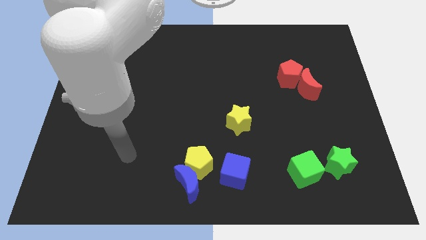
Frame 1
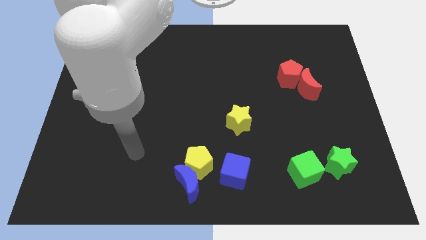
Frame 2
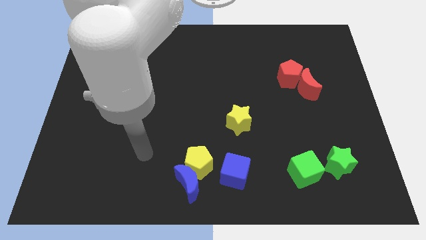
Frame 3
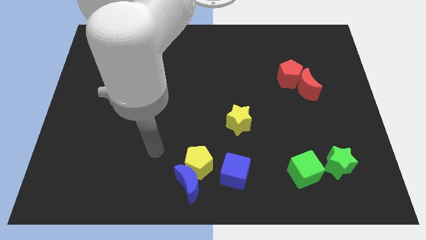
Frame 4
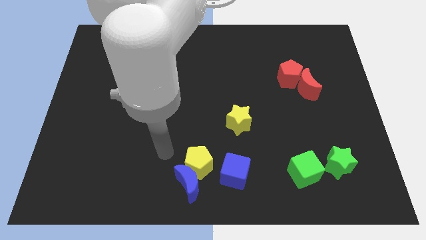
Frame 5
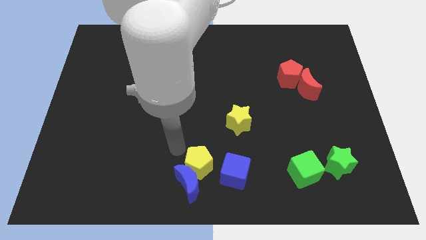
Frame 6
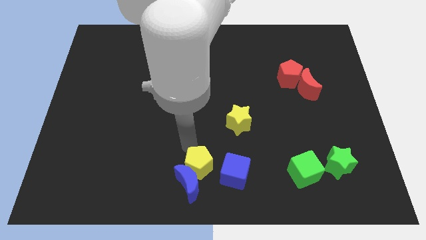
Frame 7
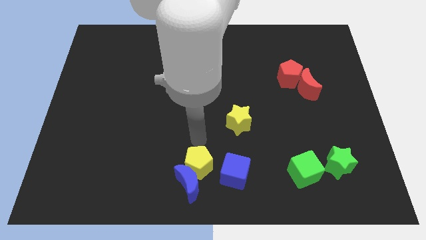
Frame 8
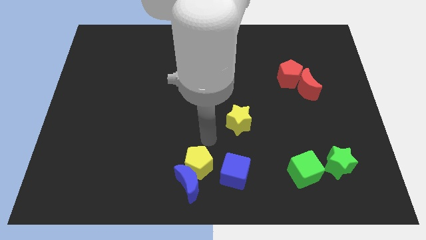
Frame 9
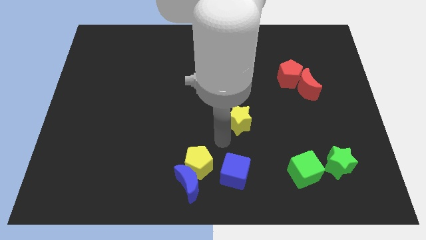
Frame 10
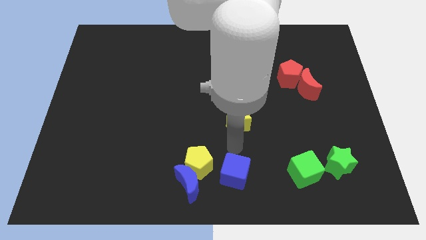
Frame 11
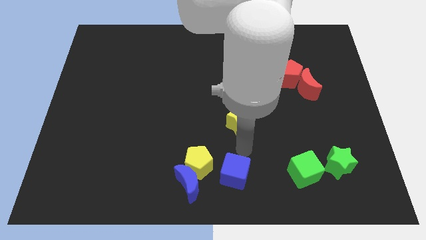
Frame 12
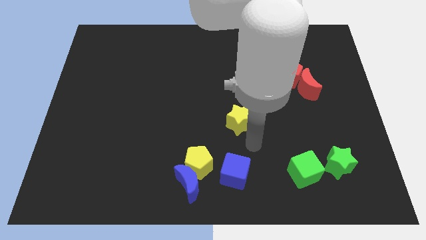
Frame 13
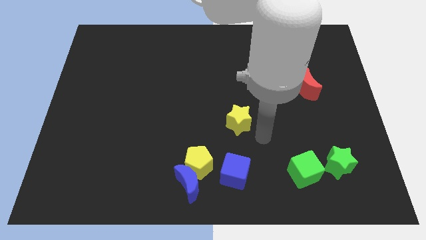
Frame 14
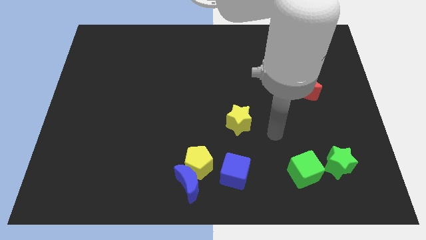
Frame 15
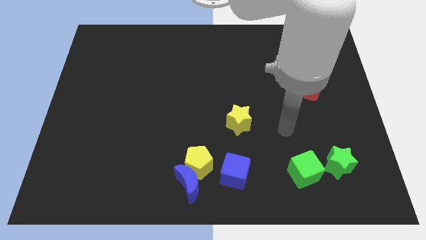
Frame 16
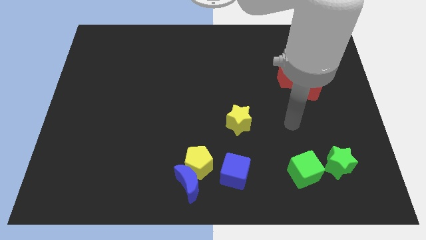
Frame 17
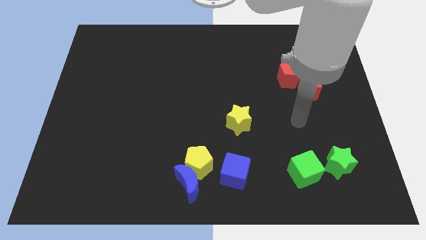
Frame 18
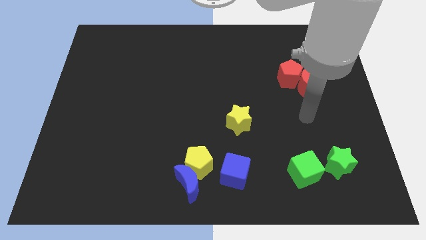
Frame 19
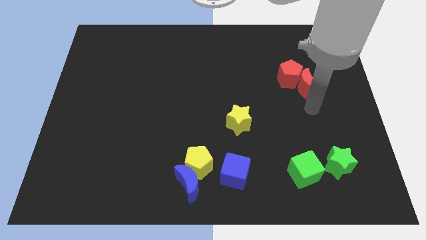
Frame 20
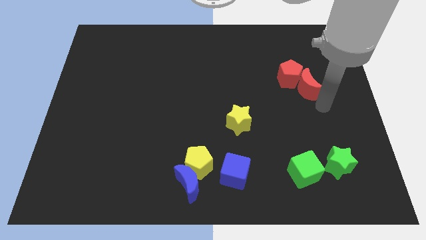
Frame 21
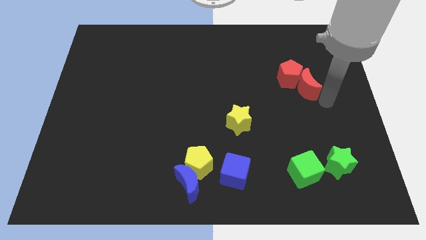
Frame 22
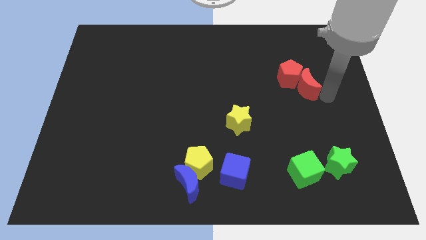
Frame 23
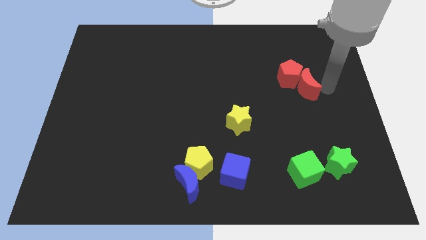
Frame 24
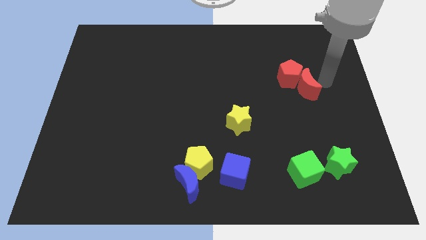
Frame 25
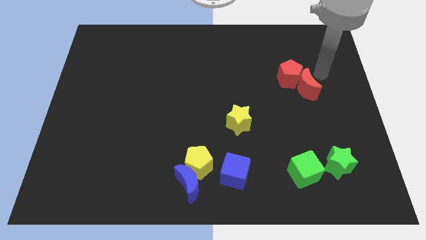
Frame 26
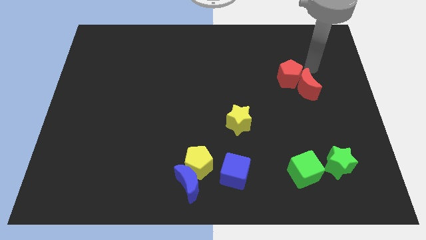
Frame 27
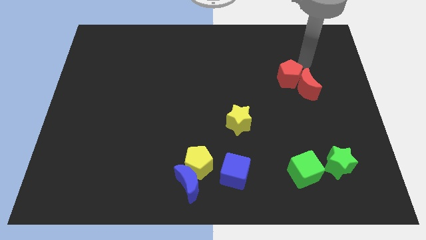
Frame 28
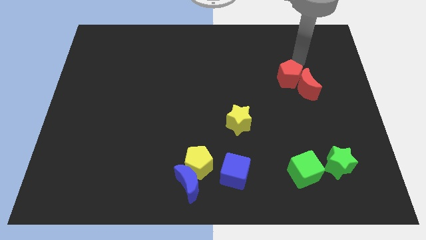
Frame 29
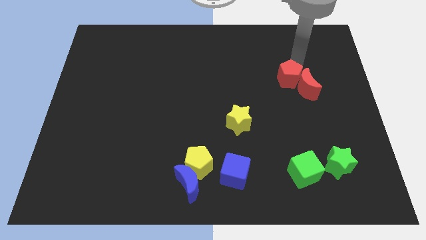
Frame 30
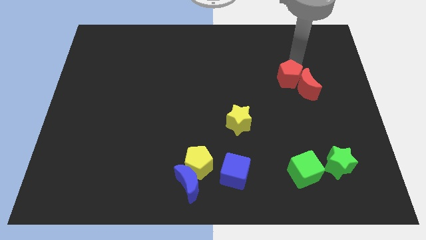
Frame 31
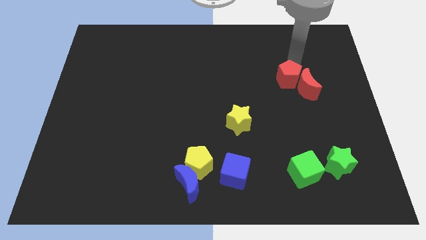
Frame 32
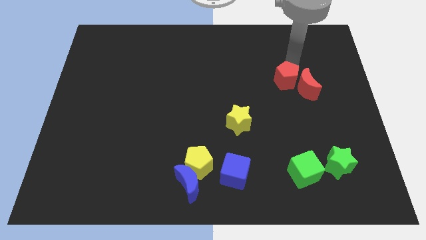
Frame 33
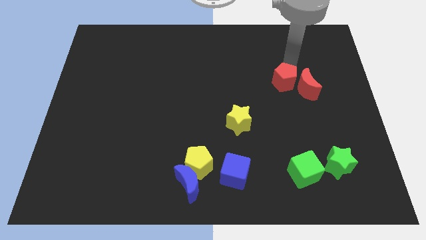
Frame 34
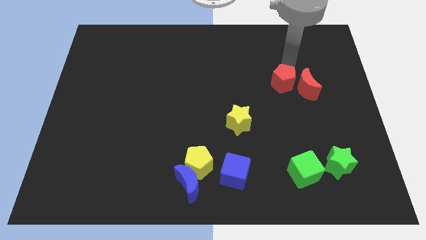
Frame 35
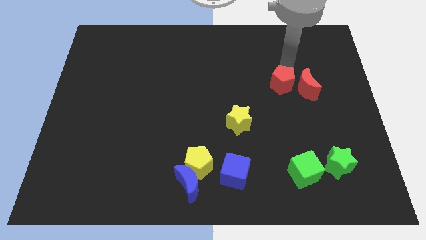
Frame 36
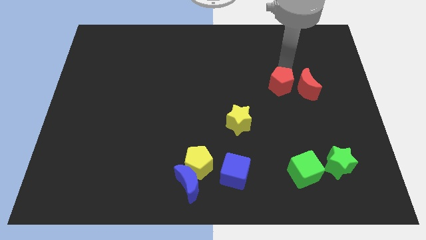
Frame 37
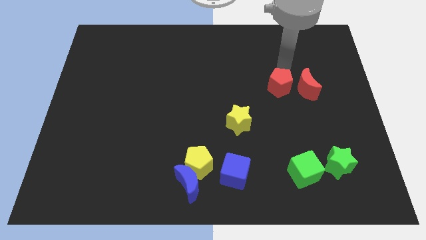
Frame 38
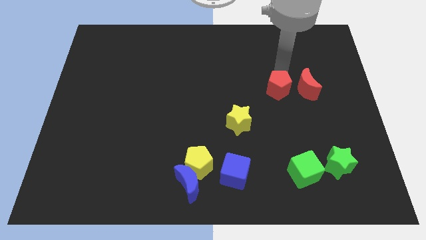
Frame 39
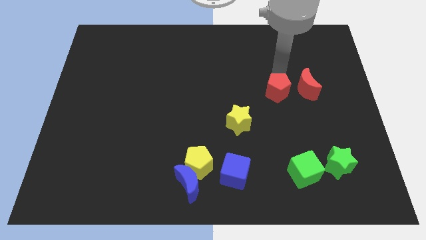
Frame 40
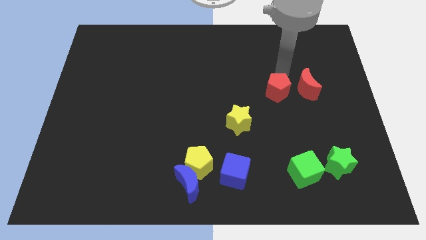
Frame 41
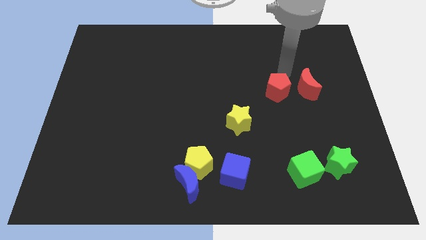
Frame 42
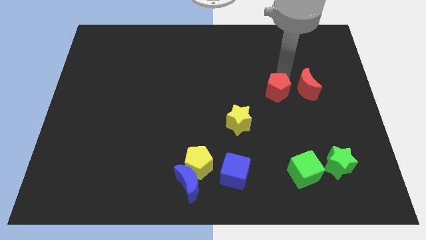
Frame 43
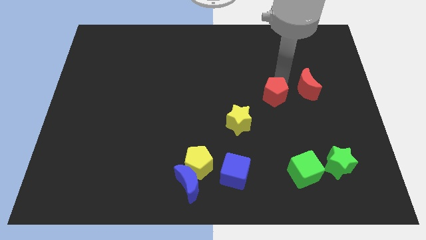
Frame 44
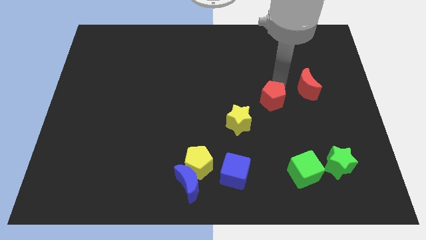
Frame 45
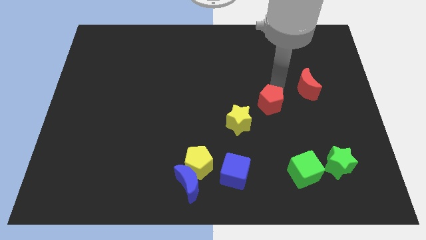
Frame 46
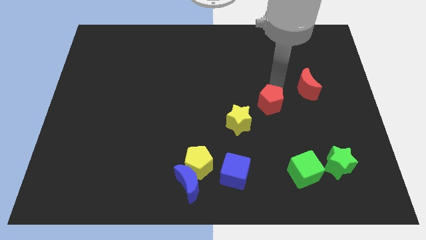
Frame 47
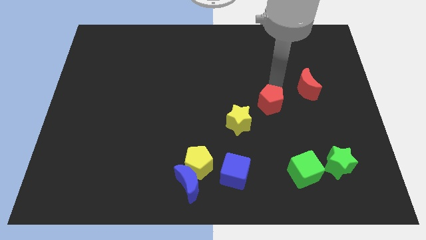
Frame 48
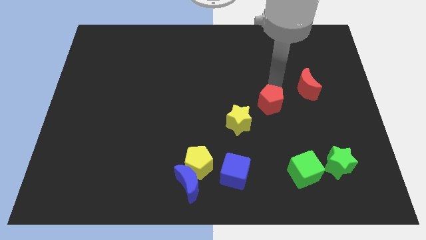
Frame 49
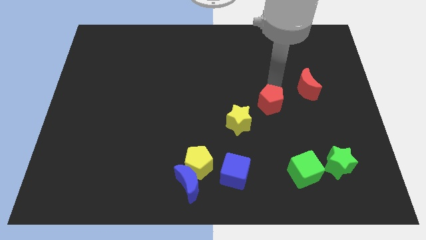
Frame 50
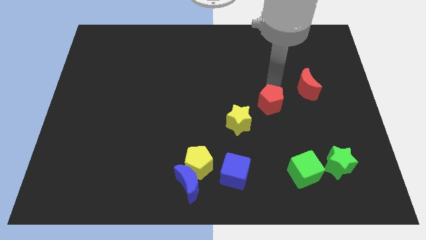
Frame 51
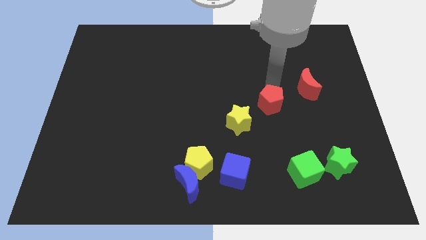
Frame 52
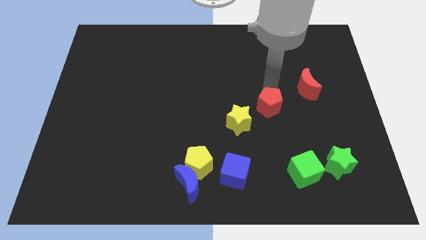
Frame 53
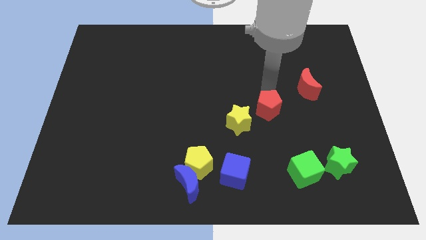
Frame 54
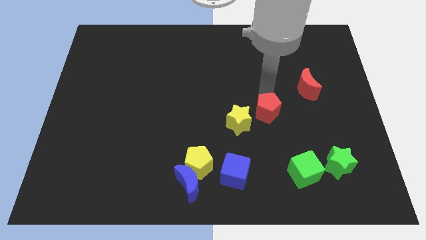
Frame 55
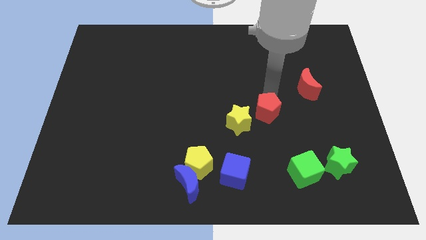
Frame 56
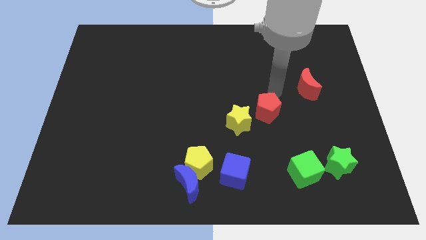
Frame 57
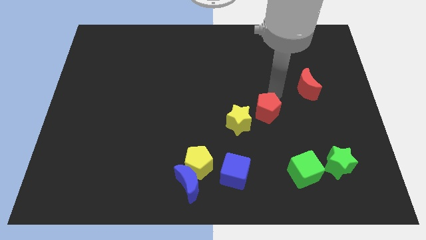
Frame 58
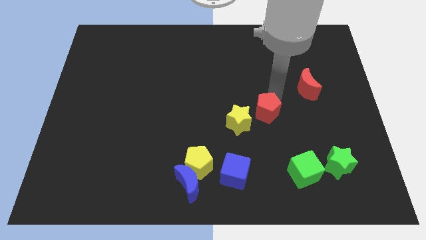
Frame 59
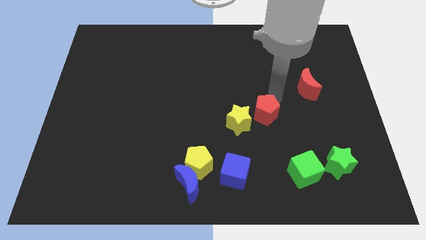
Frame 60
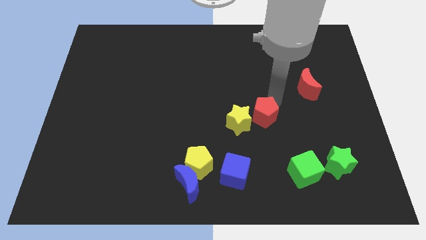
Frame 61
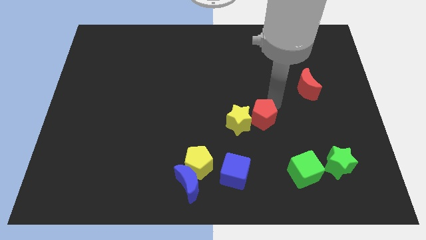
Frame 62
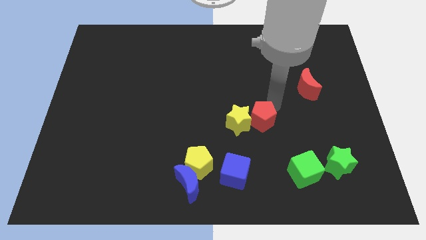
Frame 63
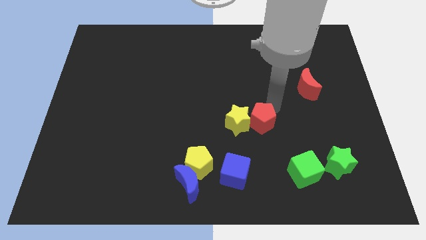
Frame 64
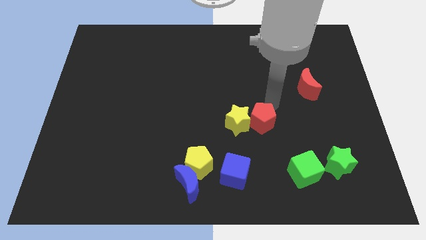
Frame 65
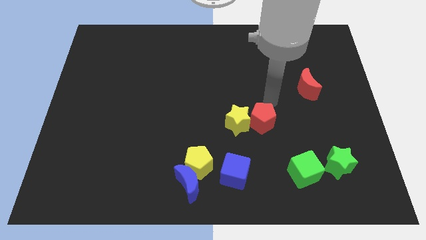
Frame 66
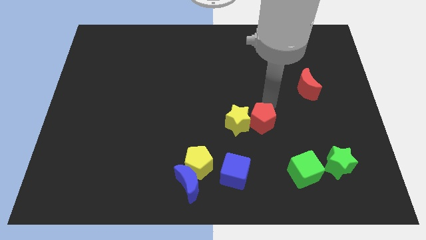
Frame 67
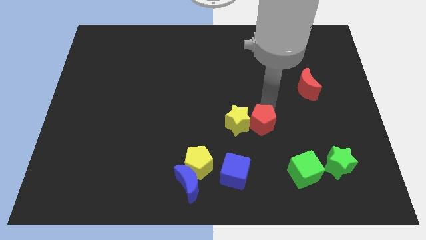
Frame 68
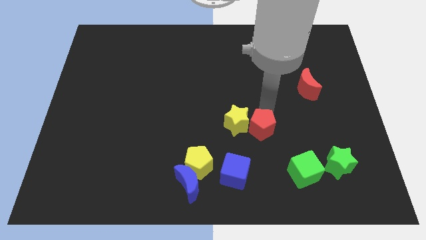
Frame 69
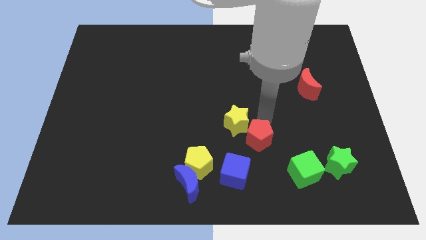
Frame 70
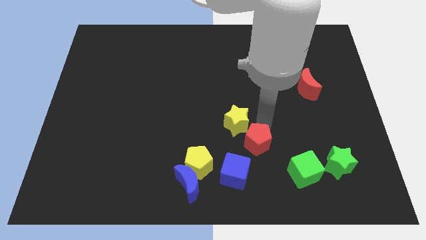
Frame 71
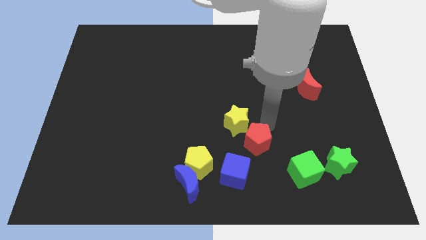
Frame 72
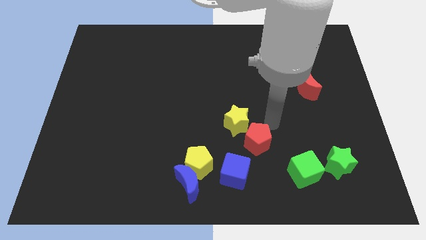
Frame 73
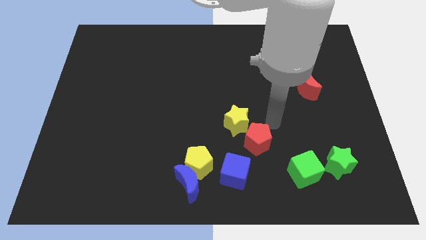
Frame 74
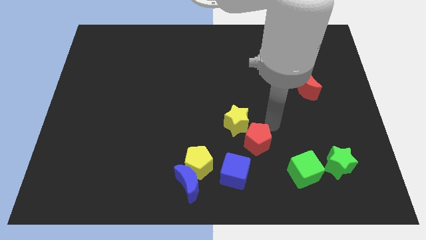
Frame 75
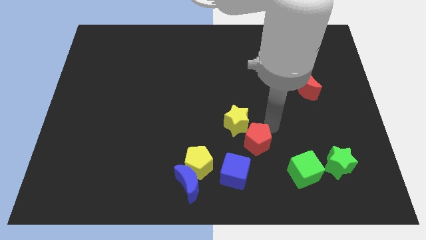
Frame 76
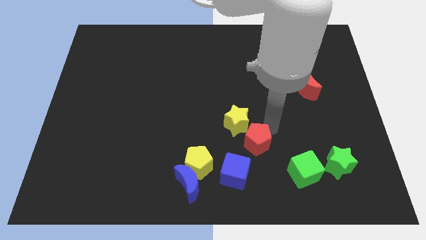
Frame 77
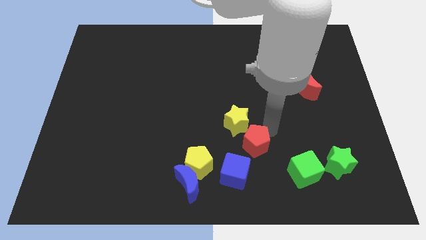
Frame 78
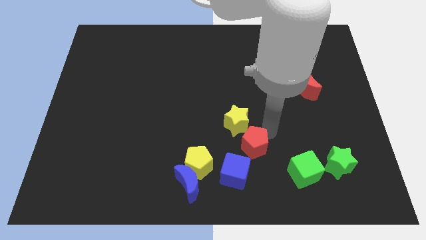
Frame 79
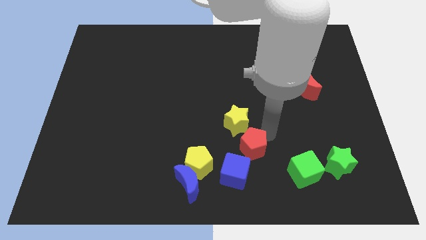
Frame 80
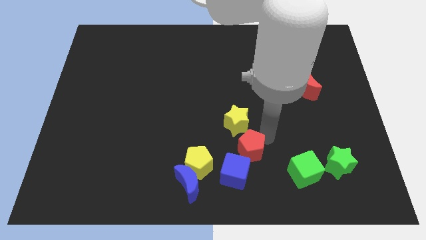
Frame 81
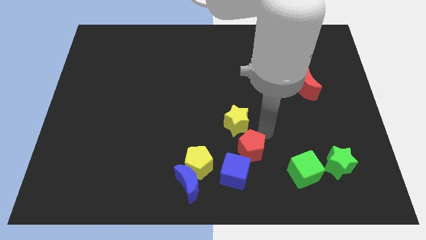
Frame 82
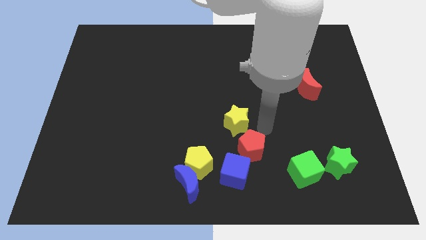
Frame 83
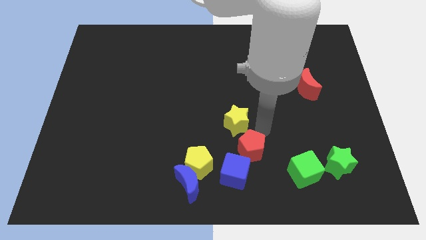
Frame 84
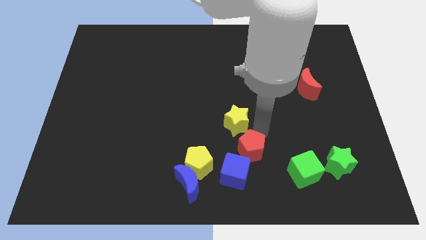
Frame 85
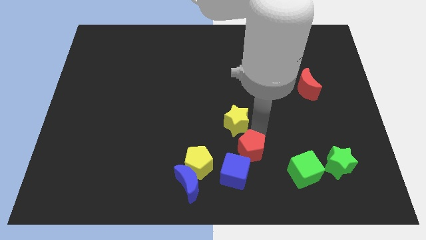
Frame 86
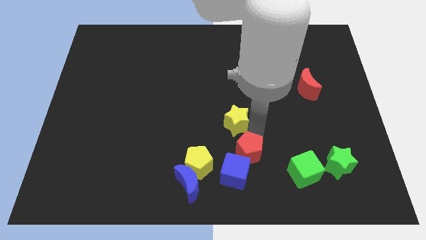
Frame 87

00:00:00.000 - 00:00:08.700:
push the red pentagon close to the blue cube
